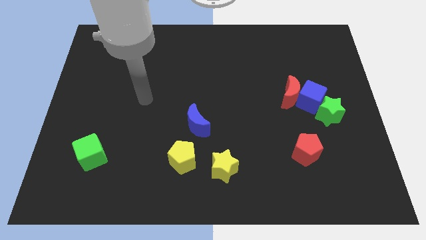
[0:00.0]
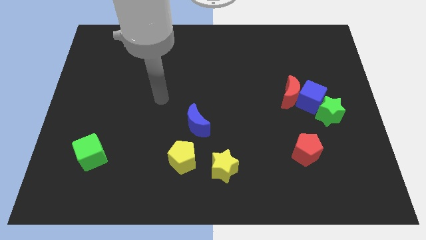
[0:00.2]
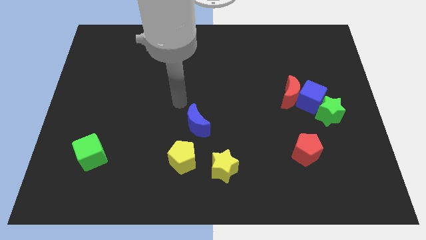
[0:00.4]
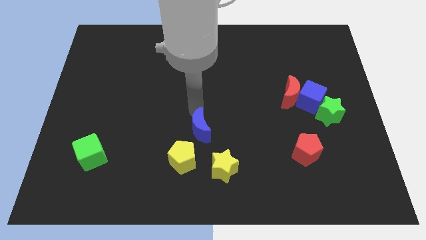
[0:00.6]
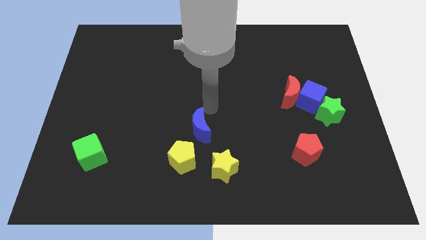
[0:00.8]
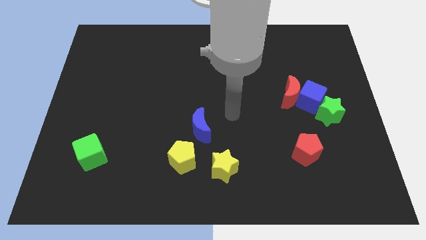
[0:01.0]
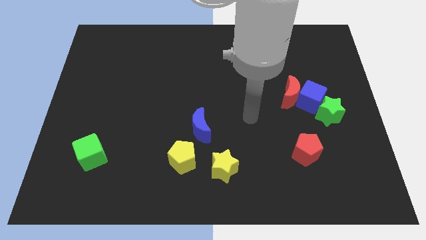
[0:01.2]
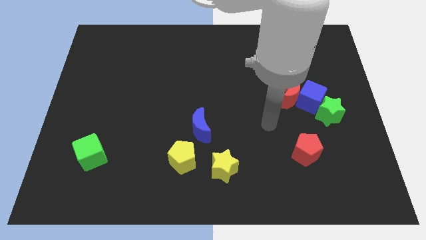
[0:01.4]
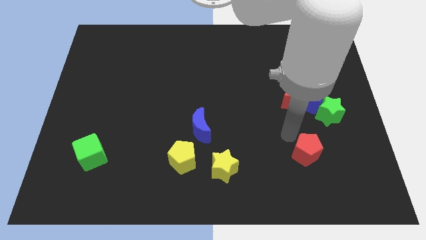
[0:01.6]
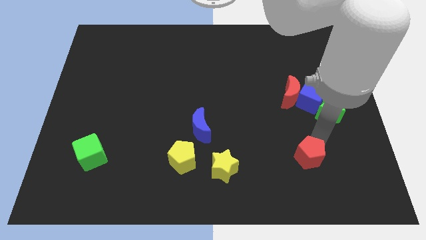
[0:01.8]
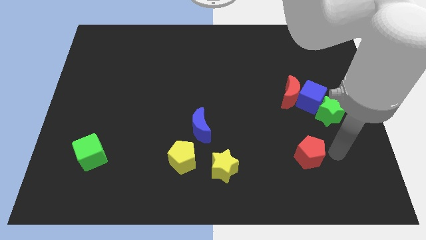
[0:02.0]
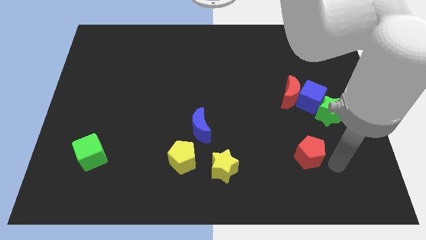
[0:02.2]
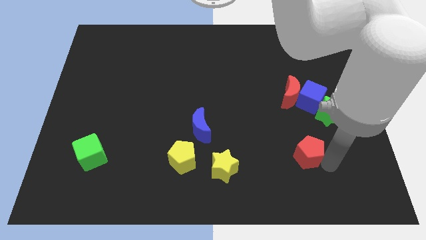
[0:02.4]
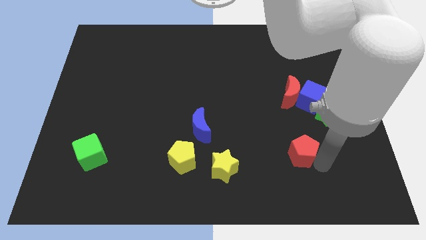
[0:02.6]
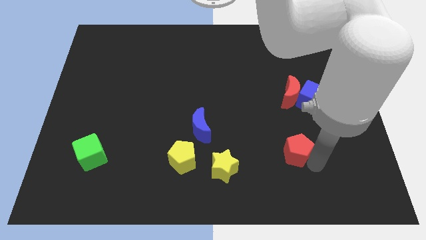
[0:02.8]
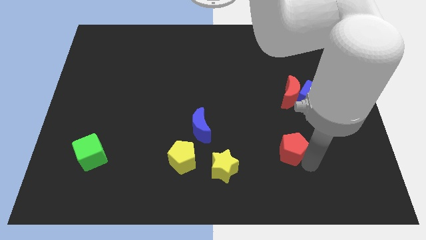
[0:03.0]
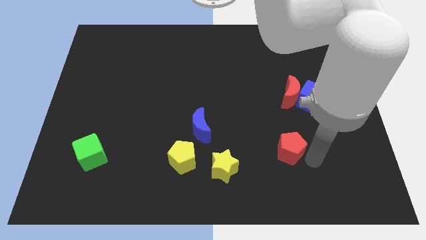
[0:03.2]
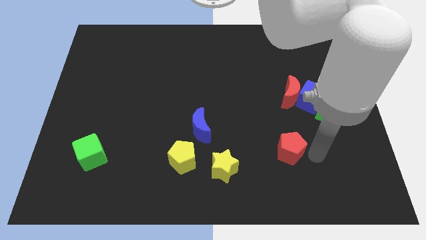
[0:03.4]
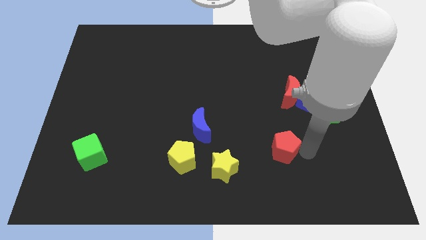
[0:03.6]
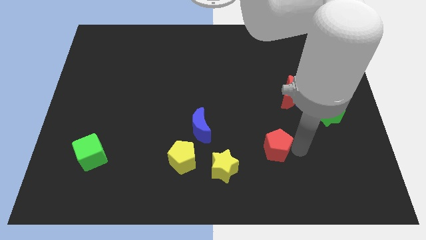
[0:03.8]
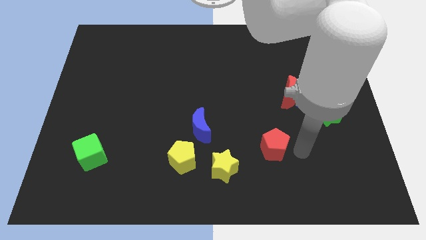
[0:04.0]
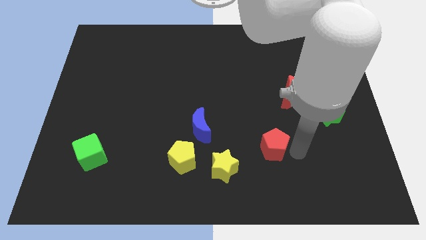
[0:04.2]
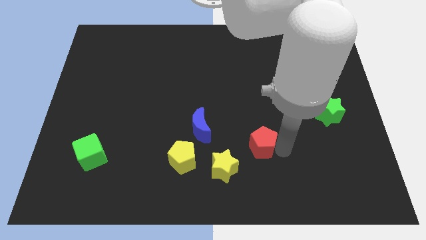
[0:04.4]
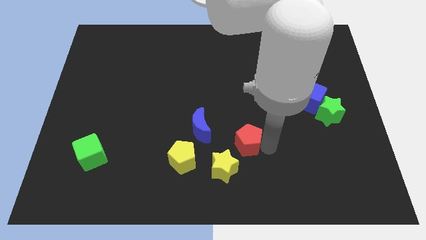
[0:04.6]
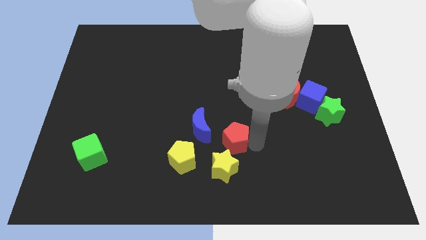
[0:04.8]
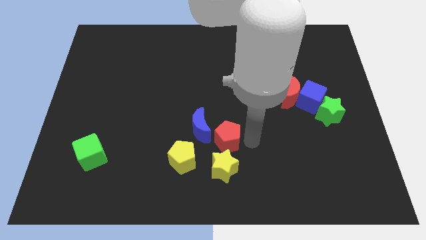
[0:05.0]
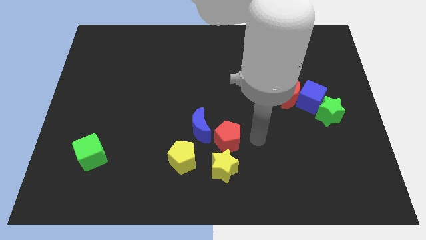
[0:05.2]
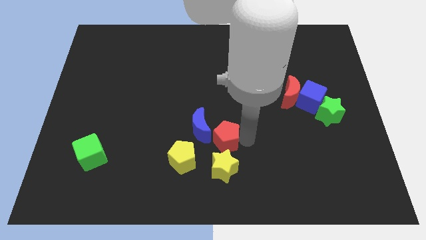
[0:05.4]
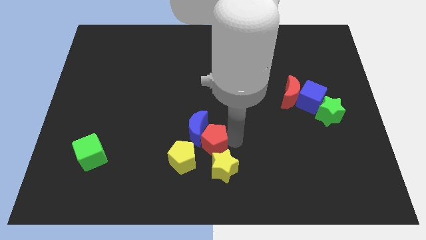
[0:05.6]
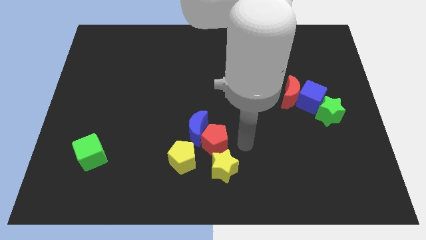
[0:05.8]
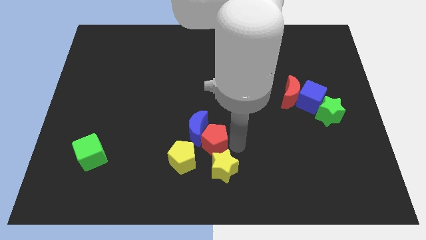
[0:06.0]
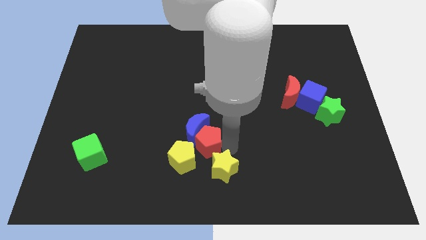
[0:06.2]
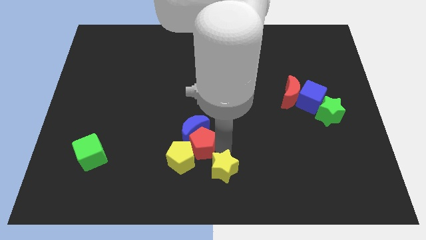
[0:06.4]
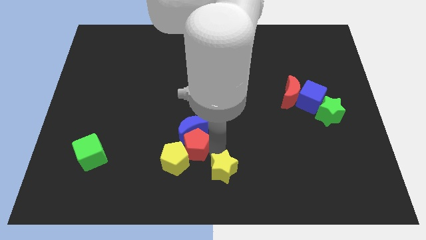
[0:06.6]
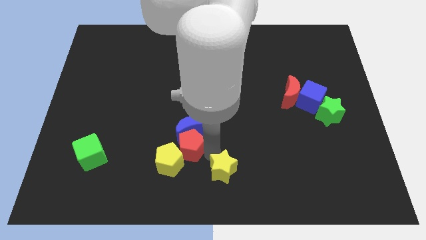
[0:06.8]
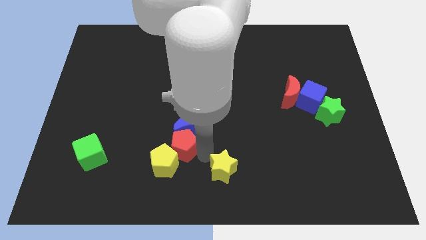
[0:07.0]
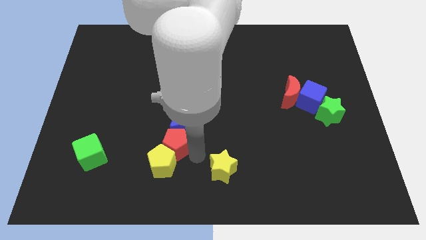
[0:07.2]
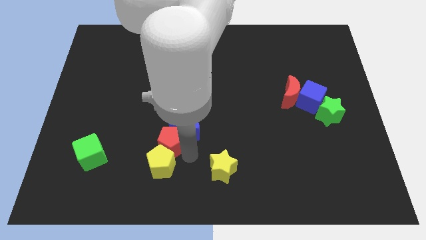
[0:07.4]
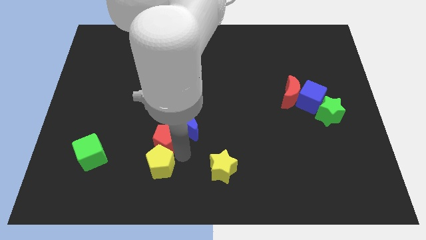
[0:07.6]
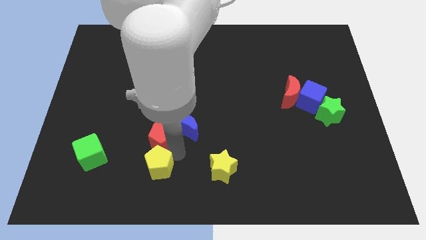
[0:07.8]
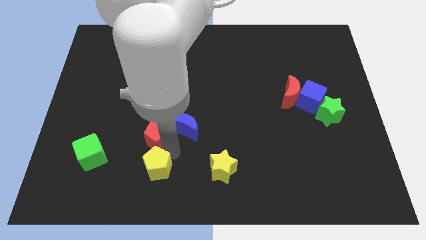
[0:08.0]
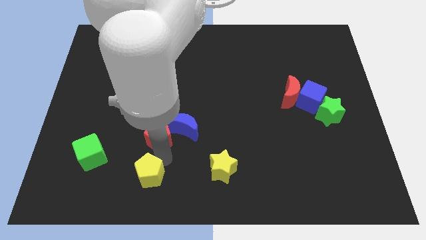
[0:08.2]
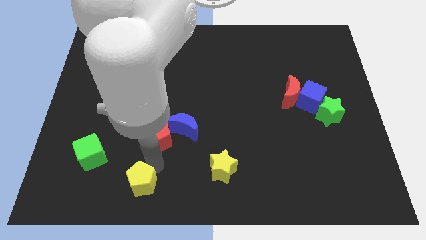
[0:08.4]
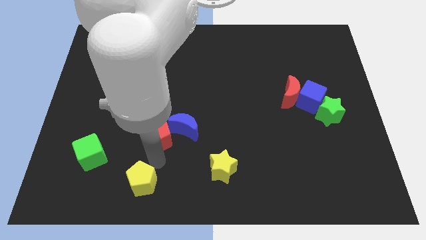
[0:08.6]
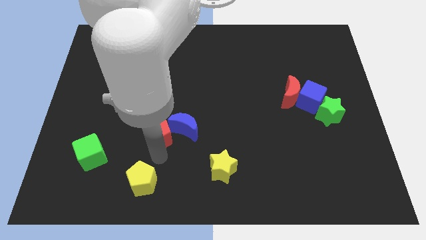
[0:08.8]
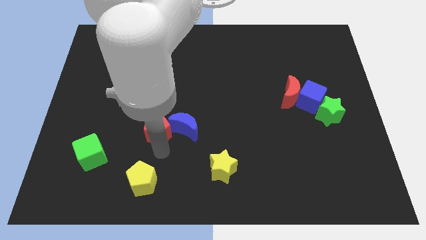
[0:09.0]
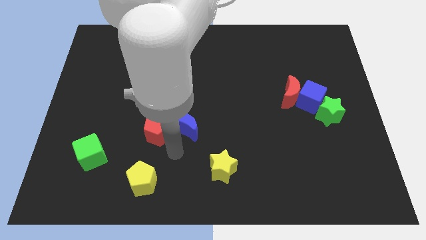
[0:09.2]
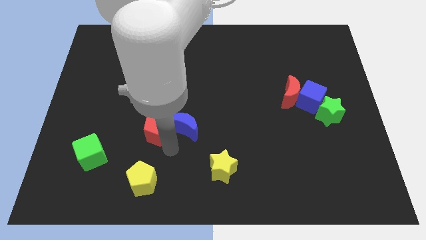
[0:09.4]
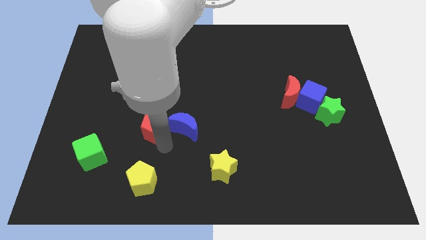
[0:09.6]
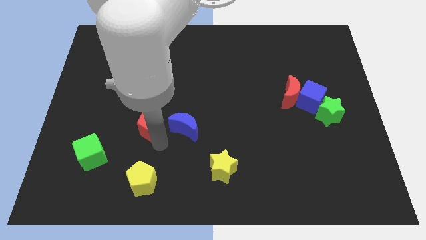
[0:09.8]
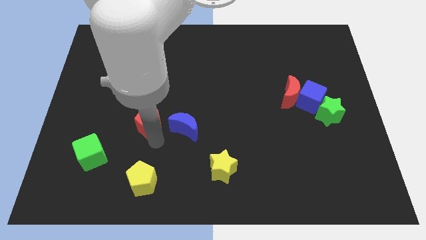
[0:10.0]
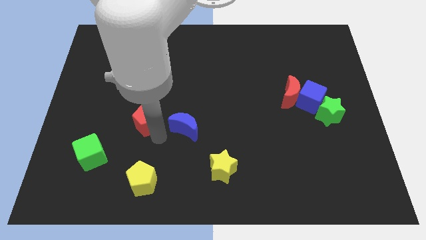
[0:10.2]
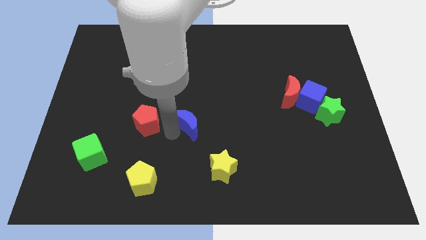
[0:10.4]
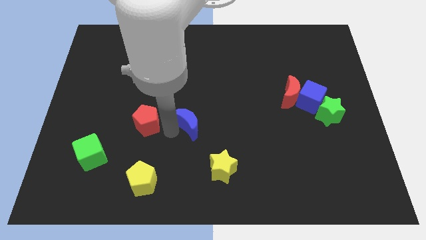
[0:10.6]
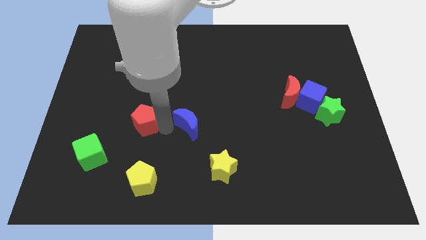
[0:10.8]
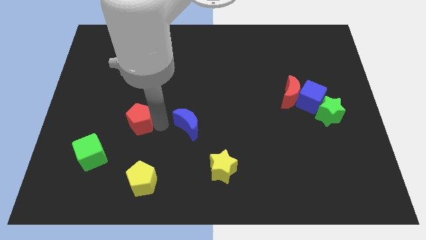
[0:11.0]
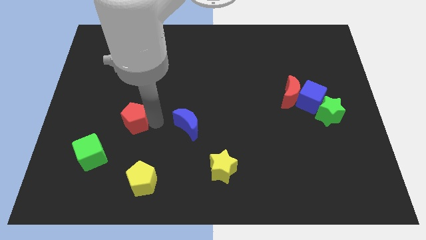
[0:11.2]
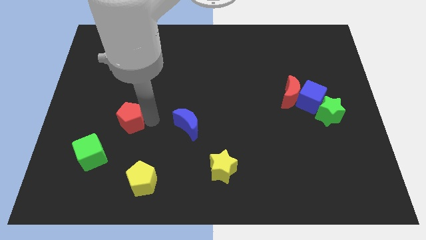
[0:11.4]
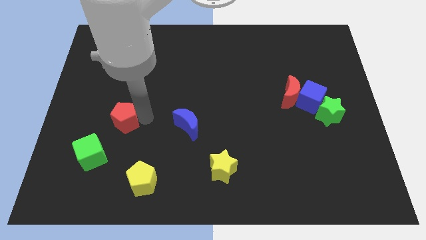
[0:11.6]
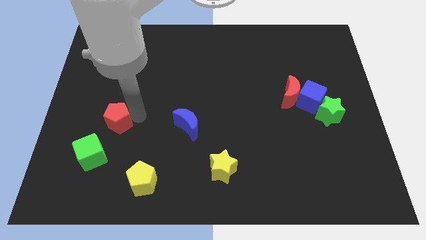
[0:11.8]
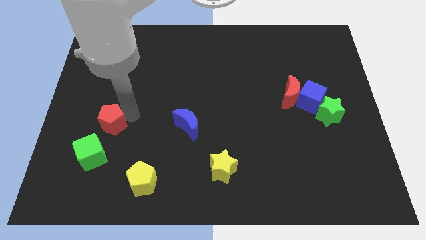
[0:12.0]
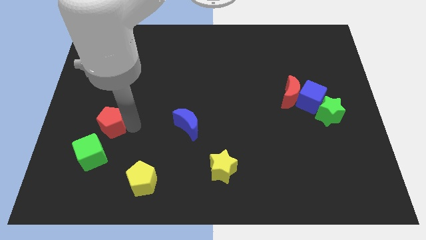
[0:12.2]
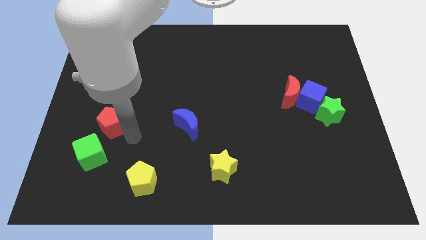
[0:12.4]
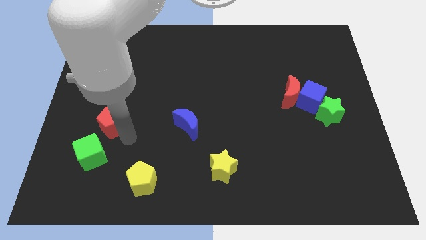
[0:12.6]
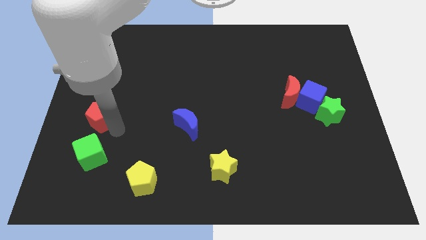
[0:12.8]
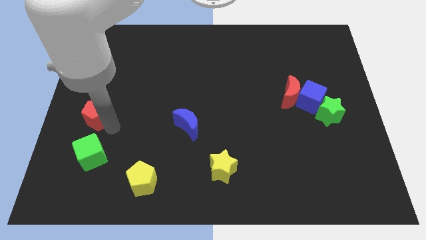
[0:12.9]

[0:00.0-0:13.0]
push the red pentagon to the left side
